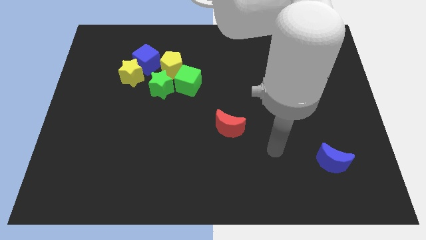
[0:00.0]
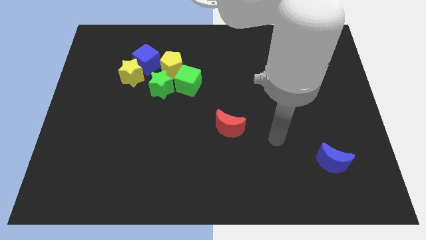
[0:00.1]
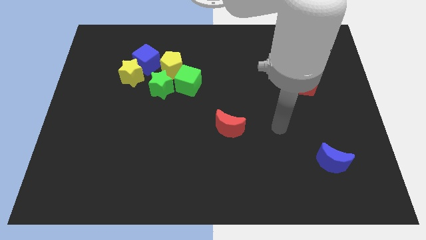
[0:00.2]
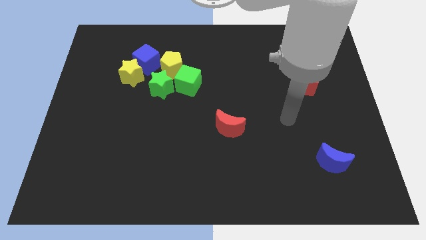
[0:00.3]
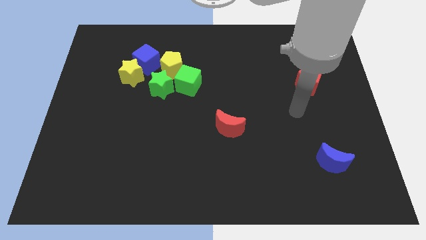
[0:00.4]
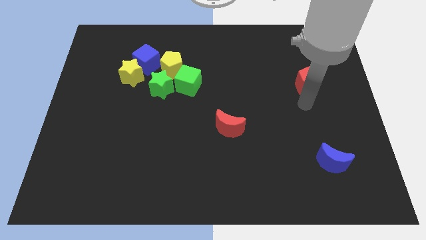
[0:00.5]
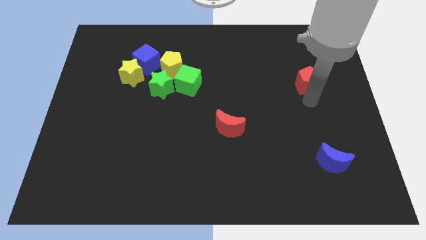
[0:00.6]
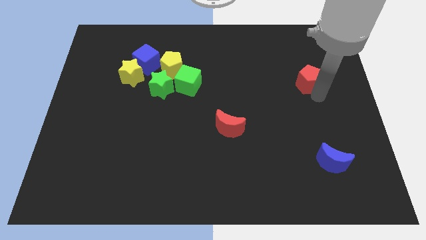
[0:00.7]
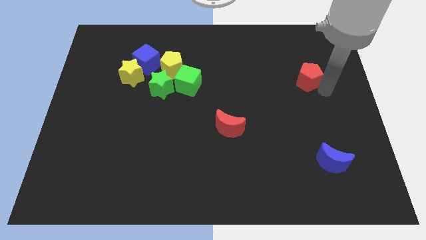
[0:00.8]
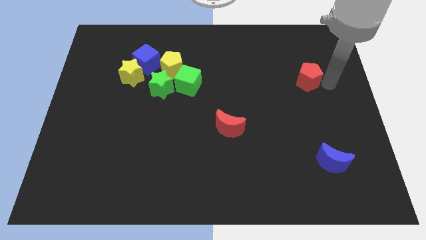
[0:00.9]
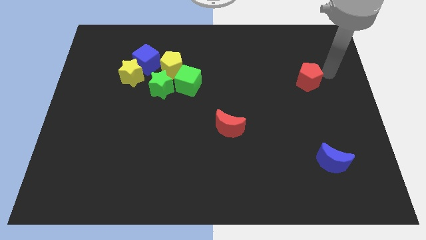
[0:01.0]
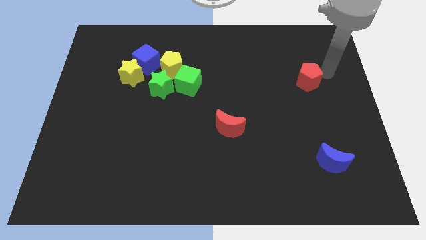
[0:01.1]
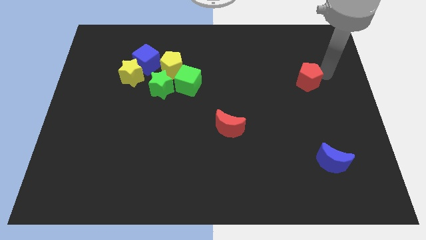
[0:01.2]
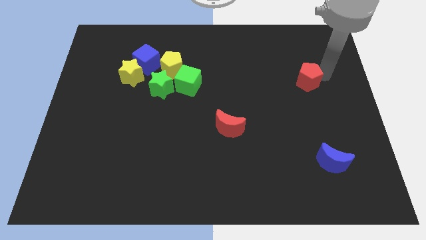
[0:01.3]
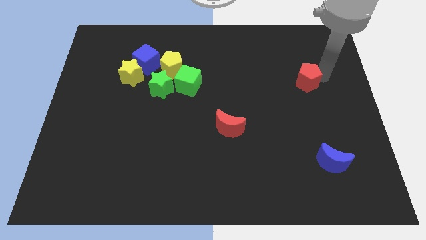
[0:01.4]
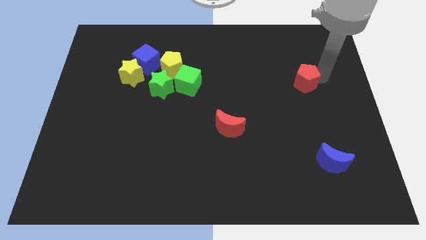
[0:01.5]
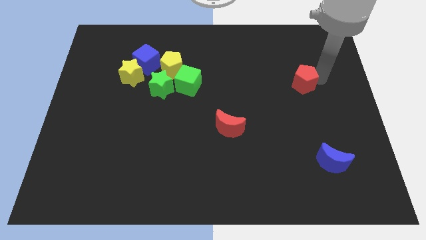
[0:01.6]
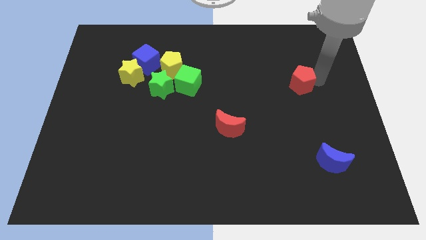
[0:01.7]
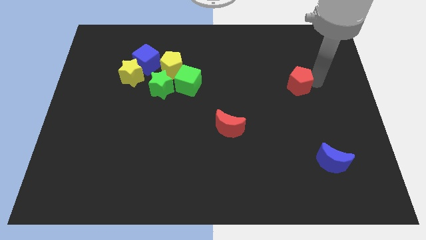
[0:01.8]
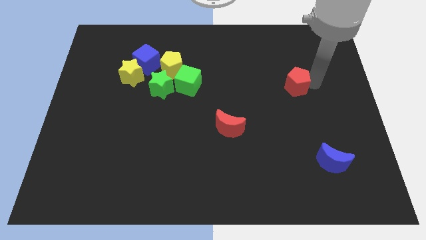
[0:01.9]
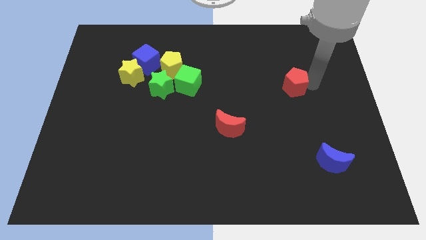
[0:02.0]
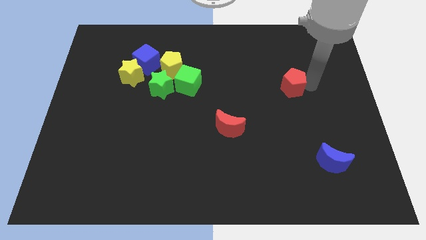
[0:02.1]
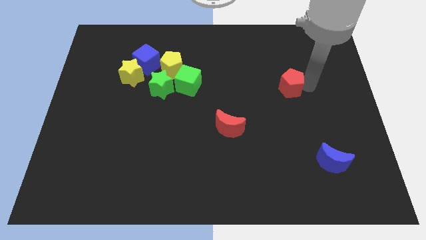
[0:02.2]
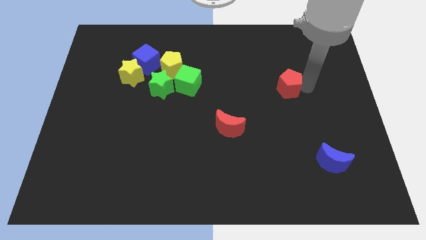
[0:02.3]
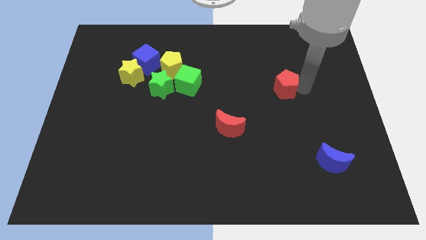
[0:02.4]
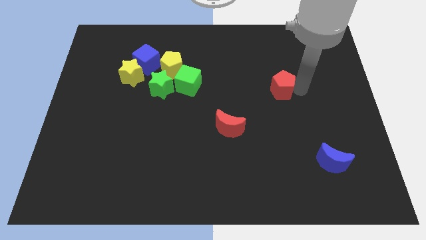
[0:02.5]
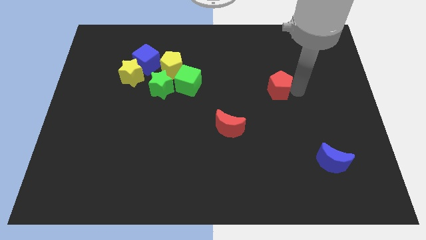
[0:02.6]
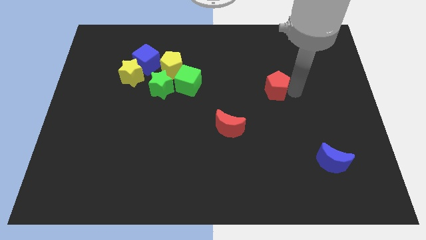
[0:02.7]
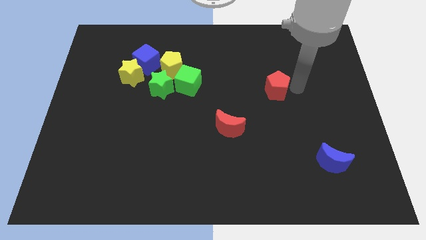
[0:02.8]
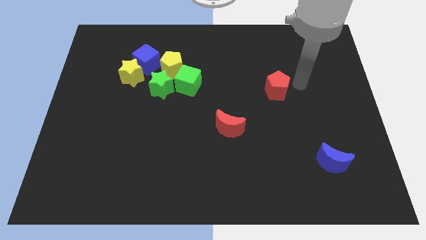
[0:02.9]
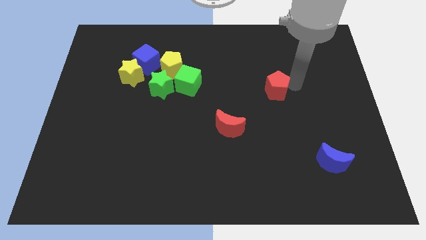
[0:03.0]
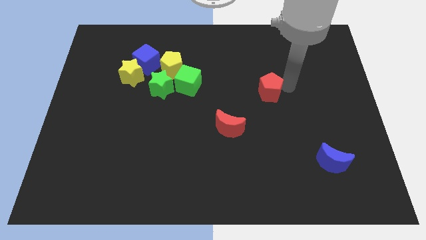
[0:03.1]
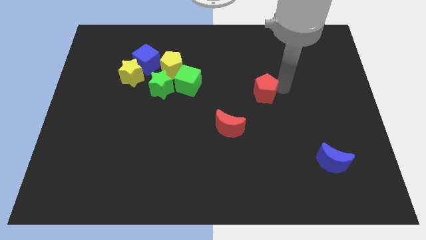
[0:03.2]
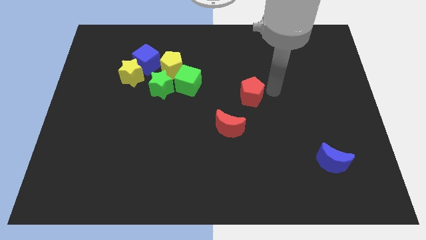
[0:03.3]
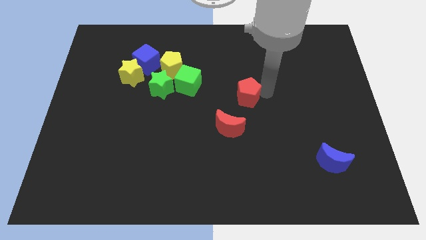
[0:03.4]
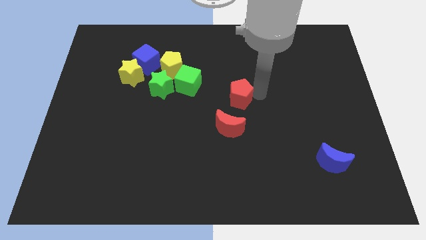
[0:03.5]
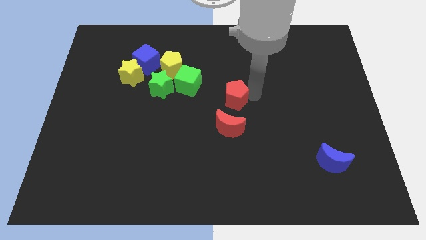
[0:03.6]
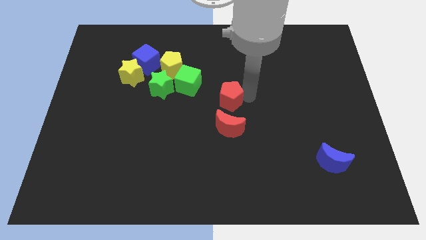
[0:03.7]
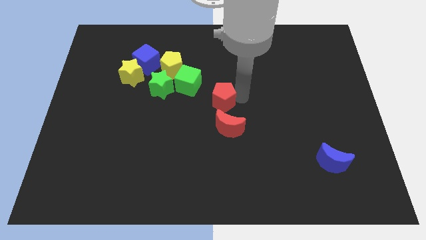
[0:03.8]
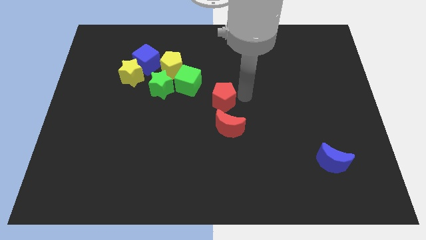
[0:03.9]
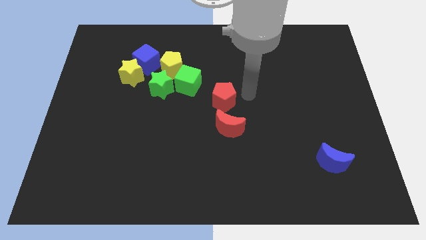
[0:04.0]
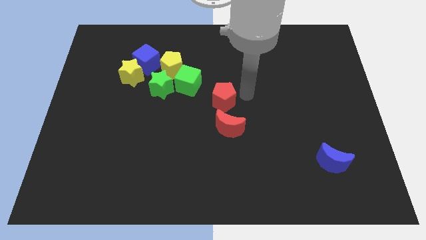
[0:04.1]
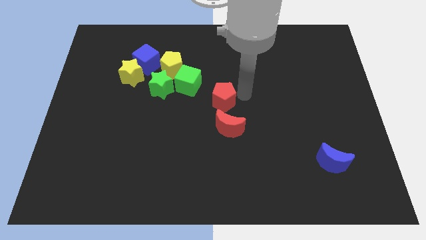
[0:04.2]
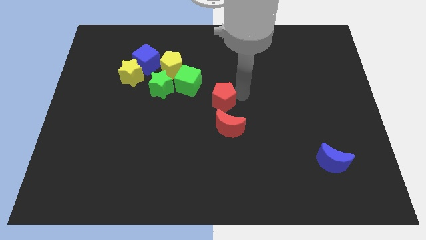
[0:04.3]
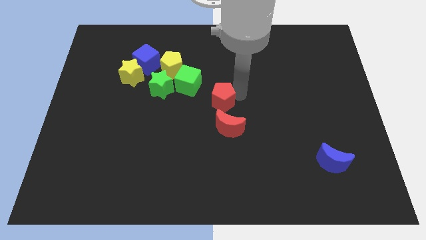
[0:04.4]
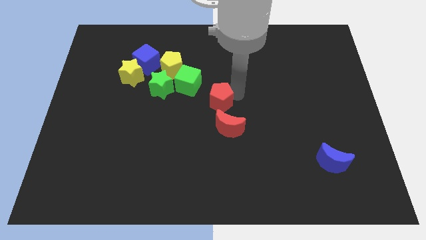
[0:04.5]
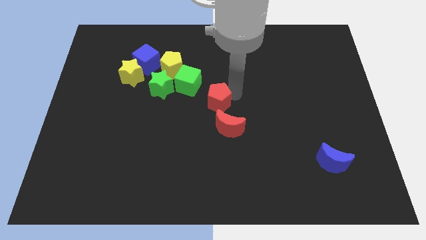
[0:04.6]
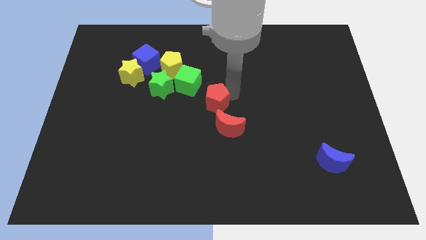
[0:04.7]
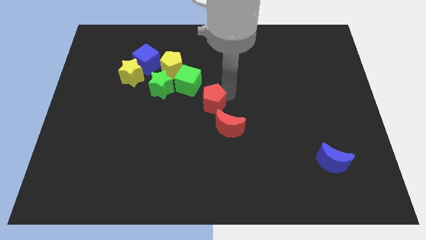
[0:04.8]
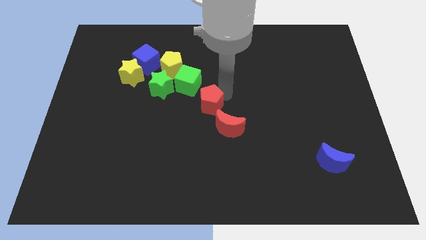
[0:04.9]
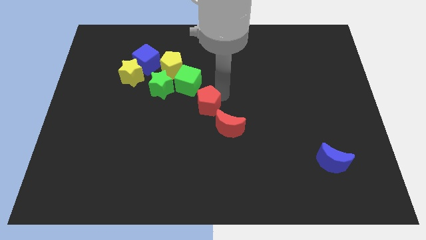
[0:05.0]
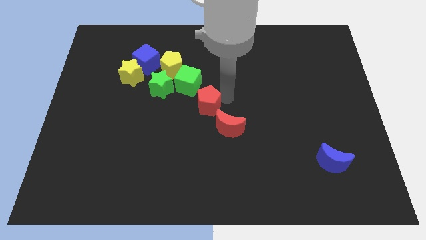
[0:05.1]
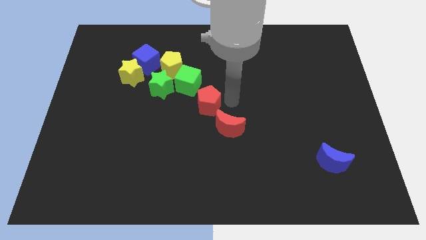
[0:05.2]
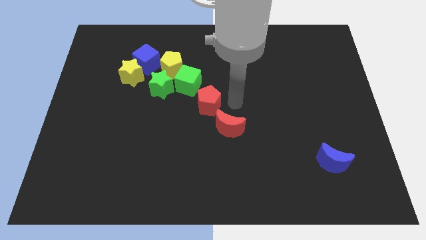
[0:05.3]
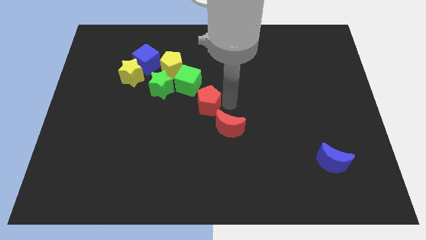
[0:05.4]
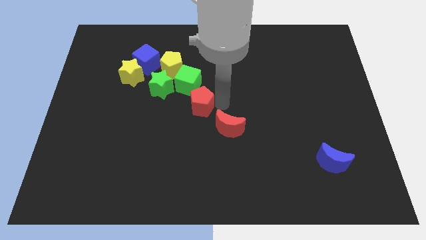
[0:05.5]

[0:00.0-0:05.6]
move the red pentagon diagonally down and to the right of the green star

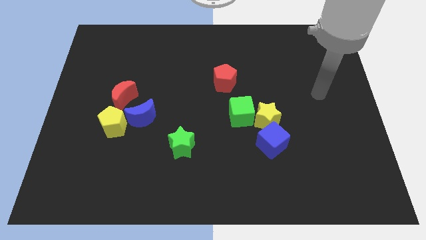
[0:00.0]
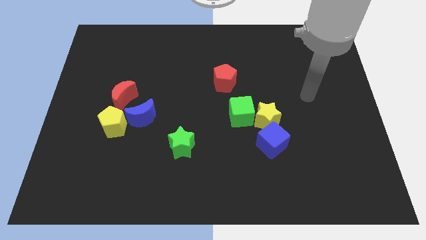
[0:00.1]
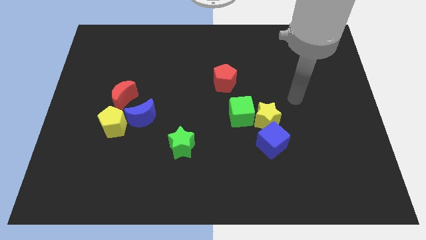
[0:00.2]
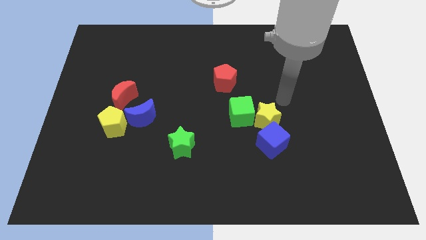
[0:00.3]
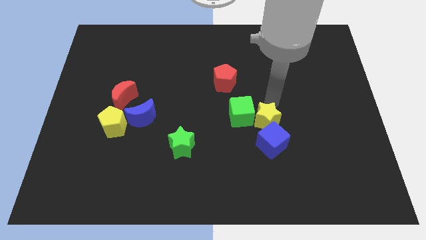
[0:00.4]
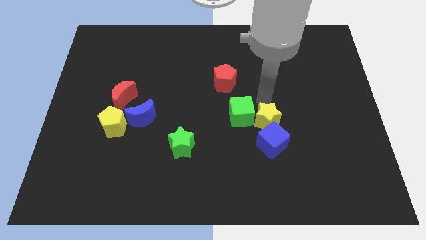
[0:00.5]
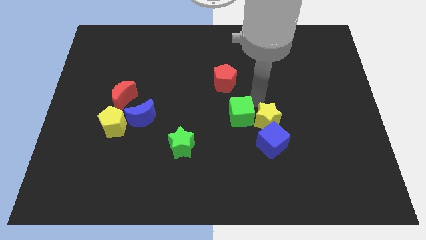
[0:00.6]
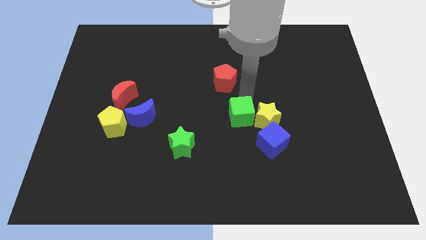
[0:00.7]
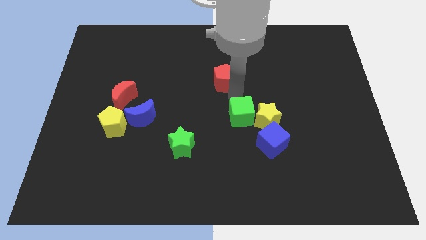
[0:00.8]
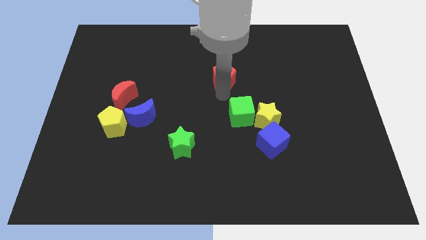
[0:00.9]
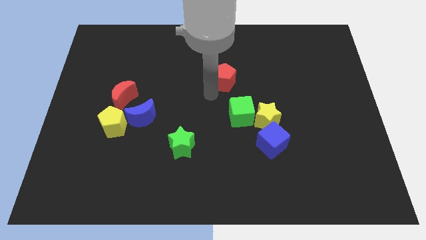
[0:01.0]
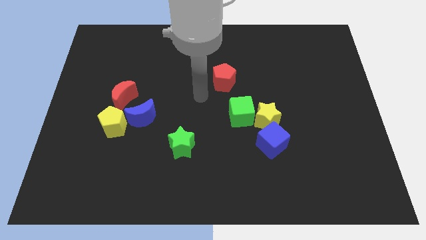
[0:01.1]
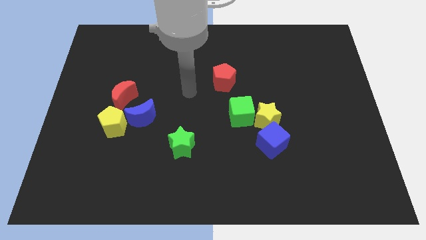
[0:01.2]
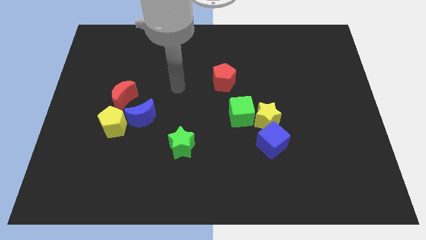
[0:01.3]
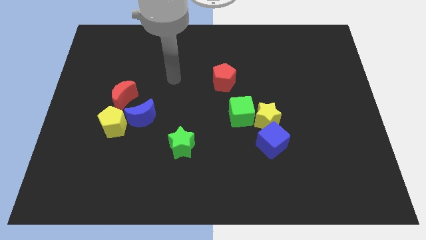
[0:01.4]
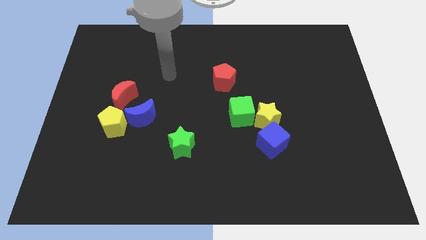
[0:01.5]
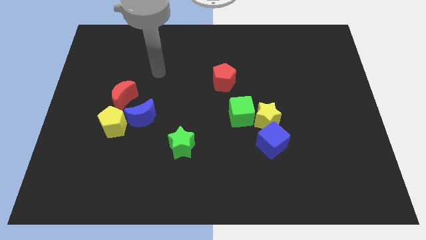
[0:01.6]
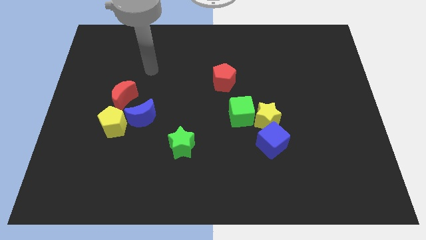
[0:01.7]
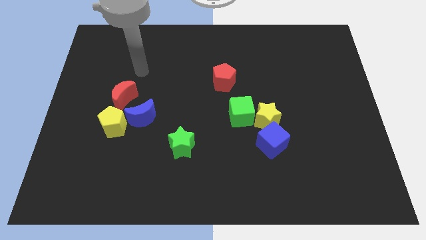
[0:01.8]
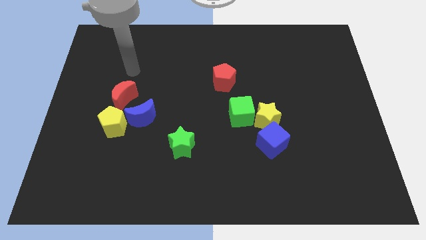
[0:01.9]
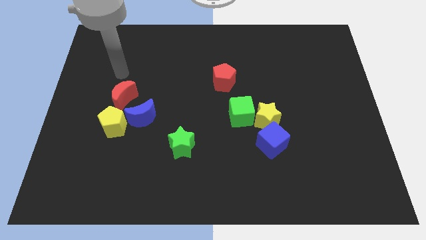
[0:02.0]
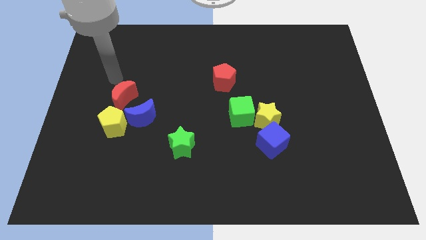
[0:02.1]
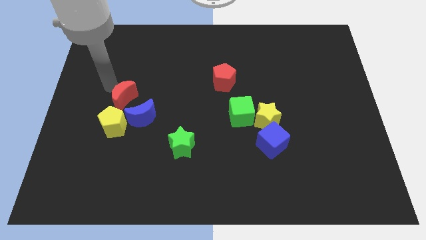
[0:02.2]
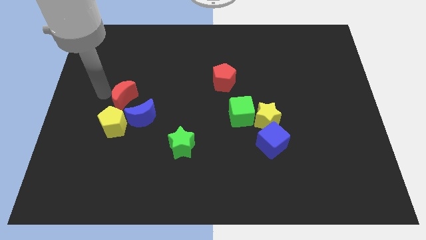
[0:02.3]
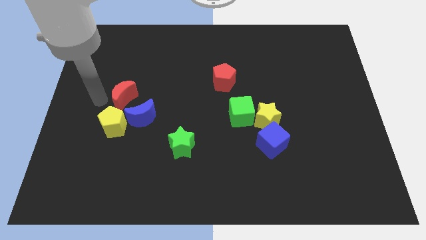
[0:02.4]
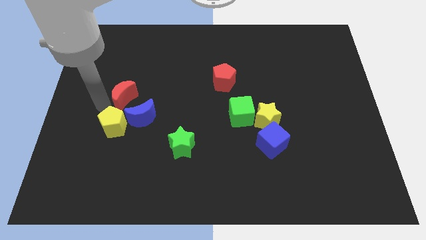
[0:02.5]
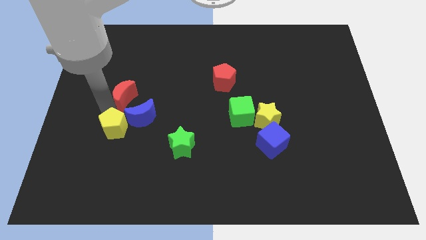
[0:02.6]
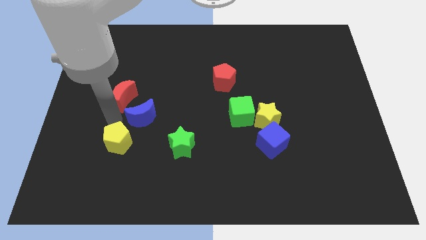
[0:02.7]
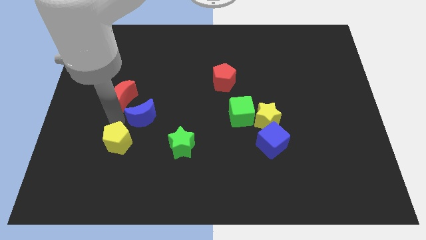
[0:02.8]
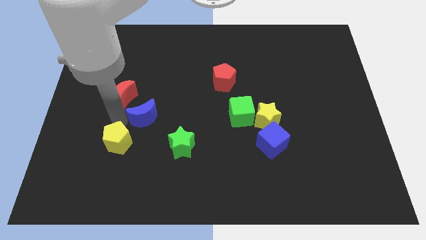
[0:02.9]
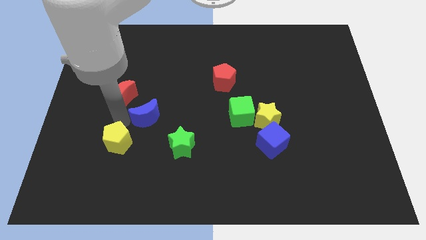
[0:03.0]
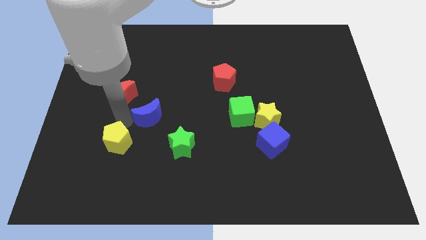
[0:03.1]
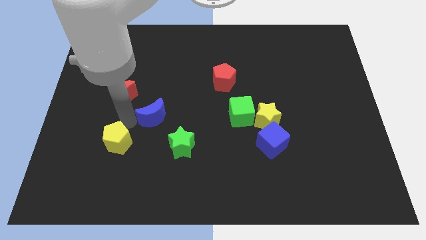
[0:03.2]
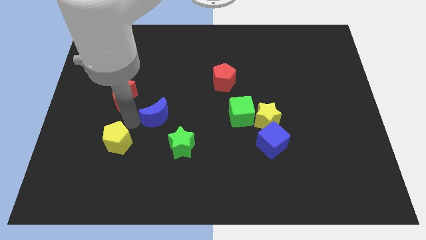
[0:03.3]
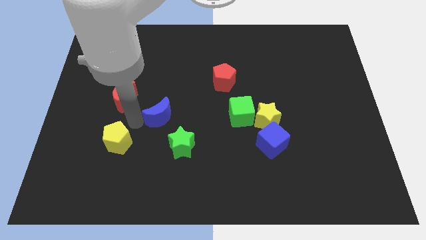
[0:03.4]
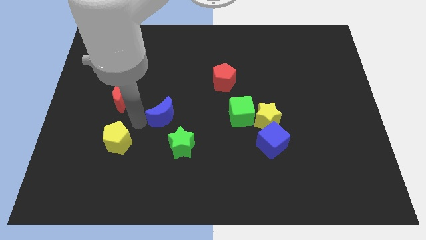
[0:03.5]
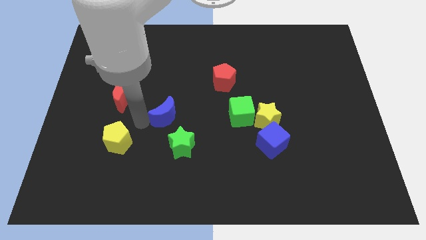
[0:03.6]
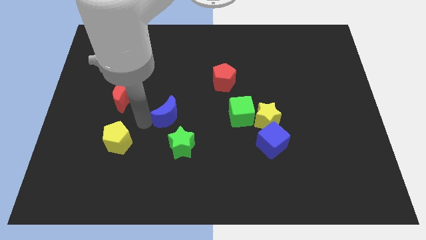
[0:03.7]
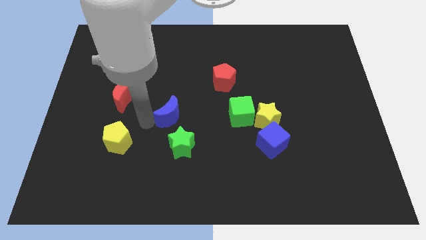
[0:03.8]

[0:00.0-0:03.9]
move the blue moon to the left of the green cube
